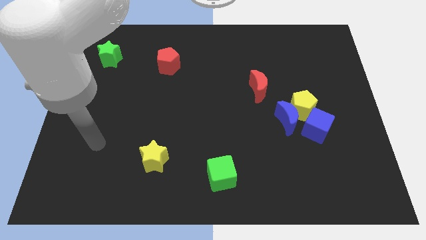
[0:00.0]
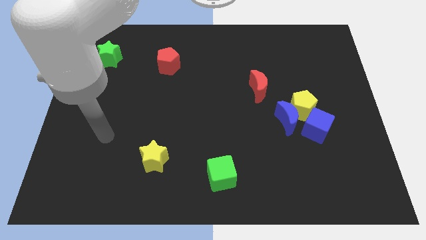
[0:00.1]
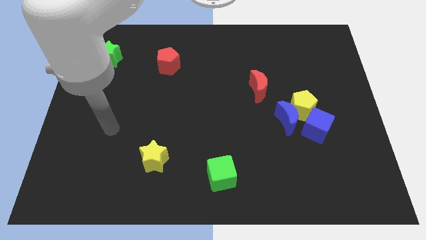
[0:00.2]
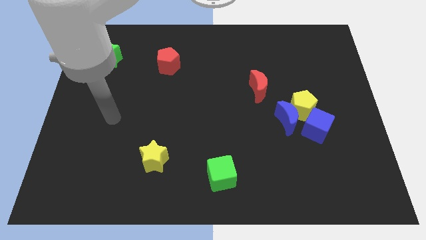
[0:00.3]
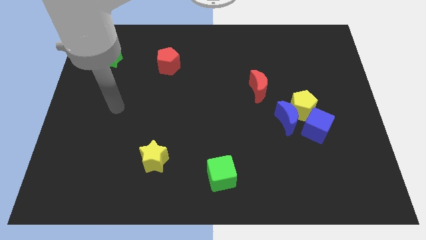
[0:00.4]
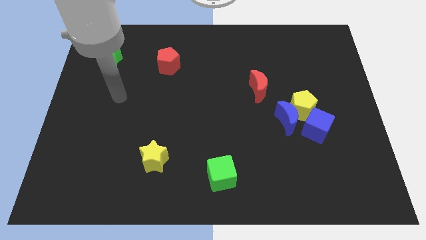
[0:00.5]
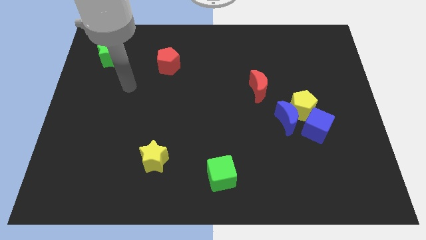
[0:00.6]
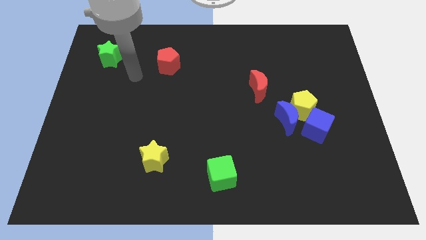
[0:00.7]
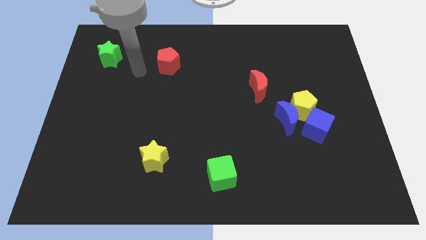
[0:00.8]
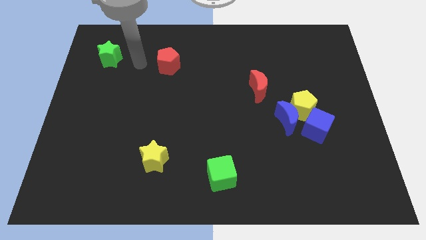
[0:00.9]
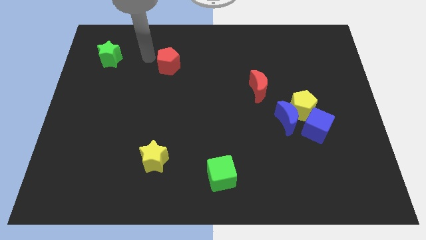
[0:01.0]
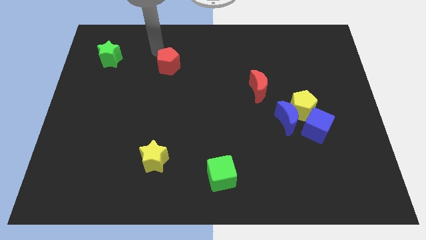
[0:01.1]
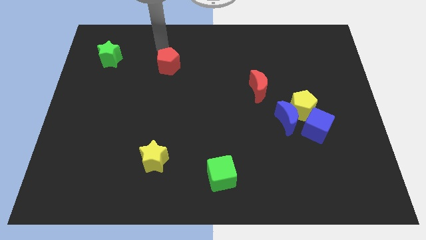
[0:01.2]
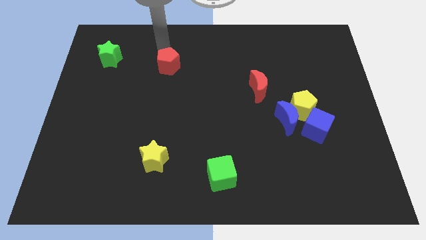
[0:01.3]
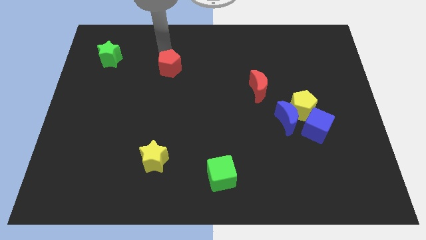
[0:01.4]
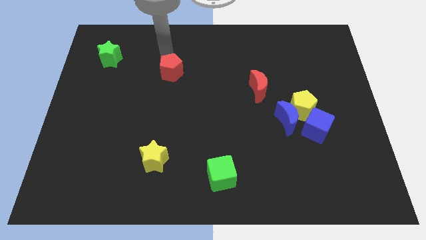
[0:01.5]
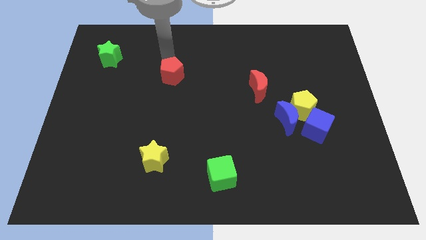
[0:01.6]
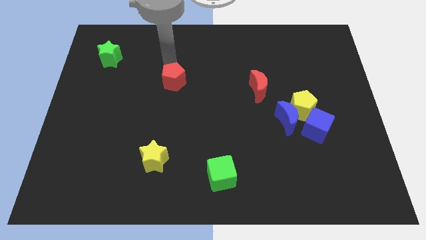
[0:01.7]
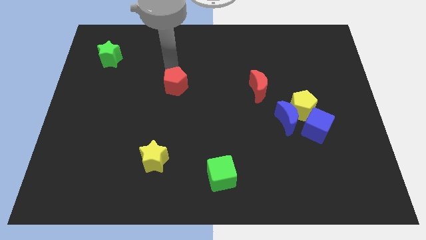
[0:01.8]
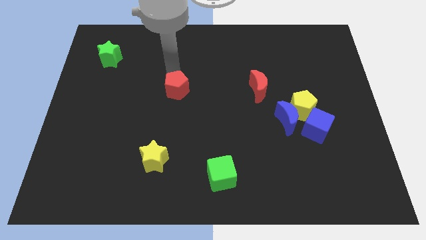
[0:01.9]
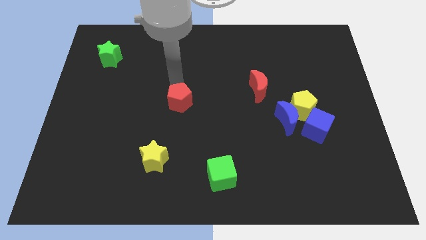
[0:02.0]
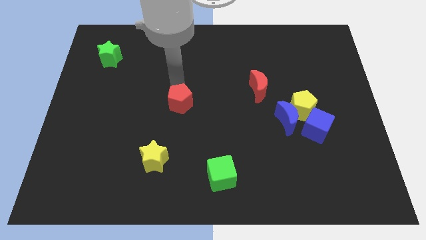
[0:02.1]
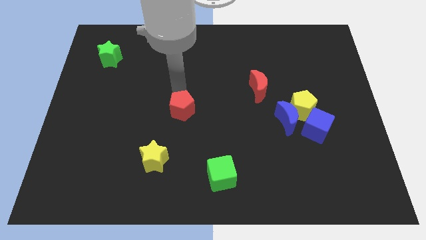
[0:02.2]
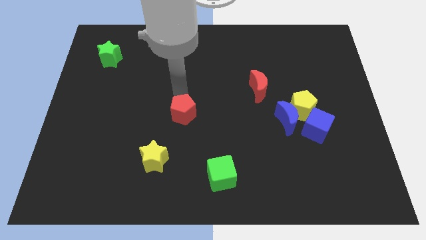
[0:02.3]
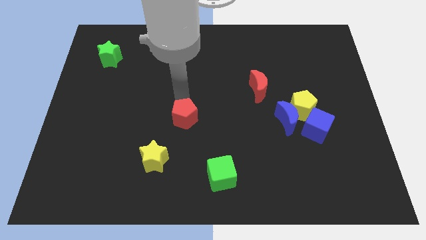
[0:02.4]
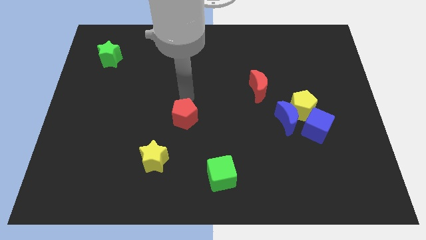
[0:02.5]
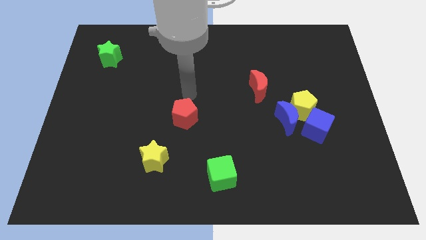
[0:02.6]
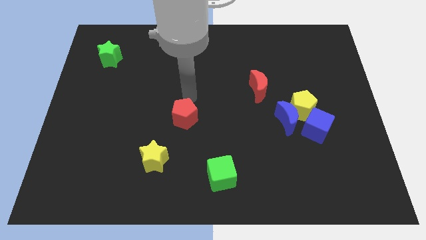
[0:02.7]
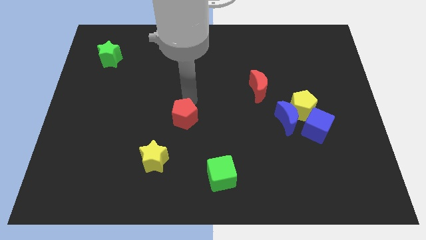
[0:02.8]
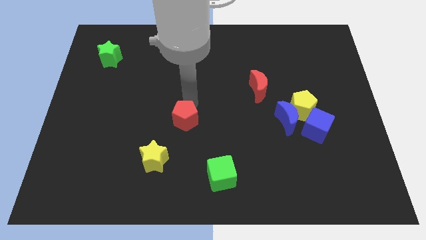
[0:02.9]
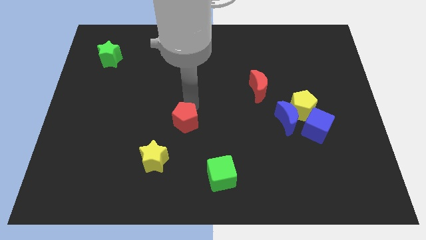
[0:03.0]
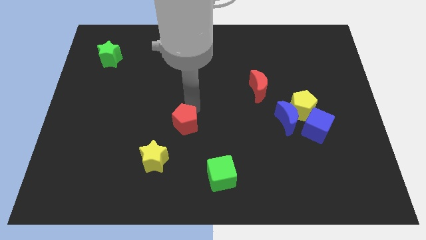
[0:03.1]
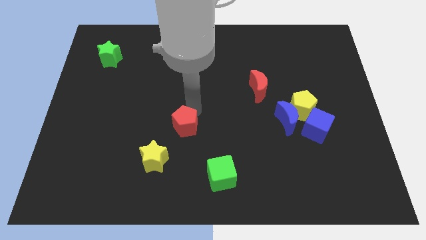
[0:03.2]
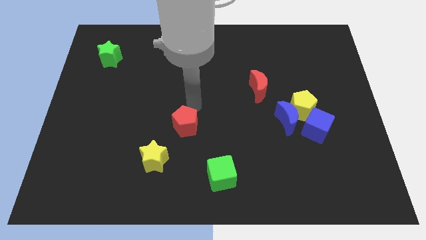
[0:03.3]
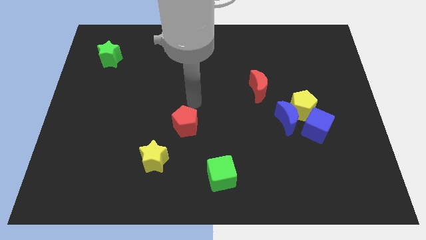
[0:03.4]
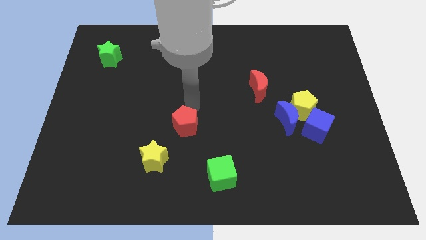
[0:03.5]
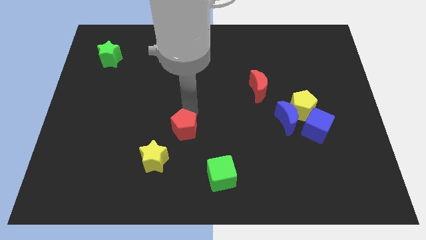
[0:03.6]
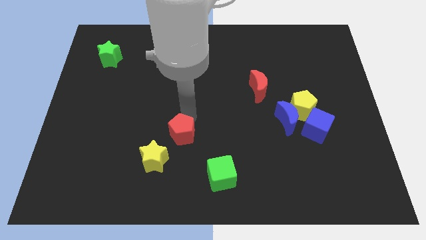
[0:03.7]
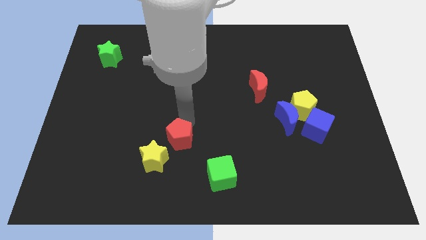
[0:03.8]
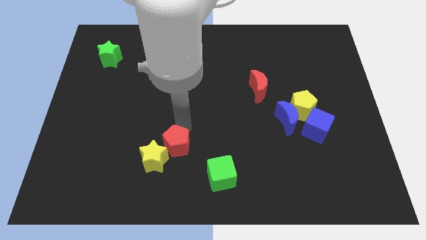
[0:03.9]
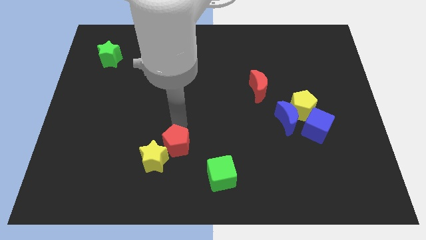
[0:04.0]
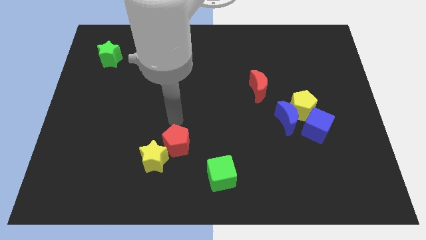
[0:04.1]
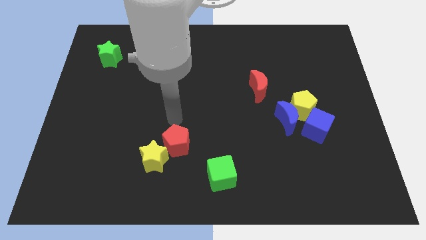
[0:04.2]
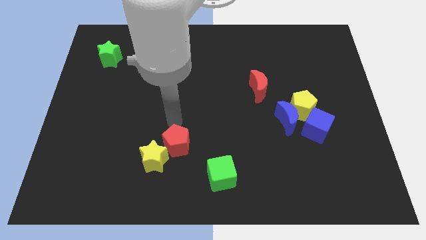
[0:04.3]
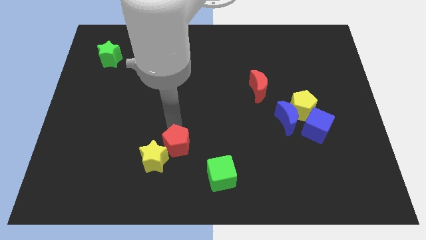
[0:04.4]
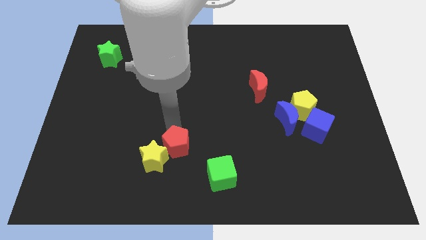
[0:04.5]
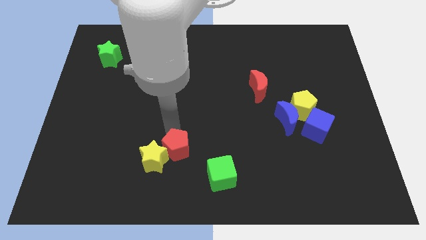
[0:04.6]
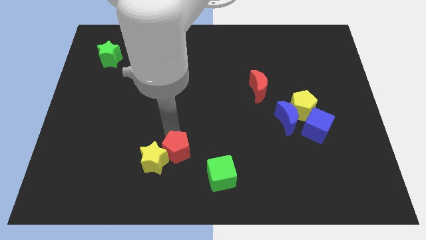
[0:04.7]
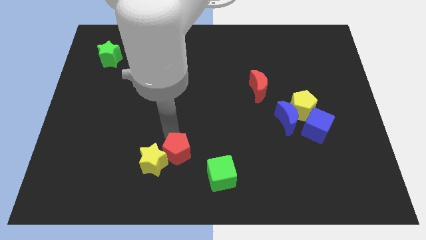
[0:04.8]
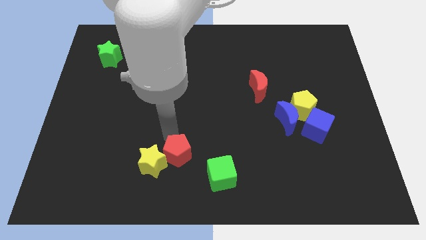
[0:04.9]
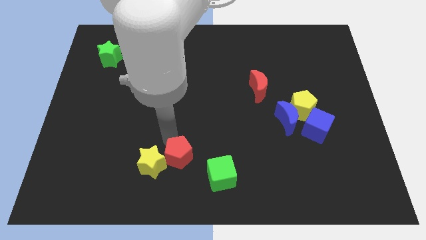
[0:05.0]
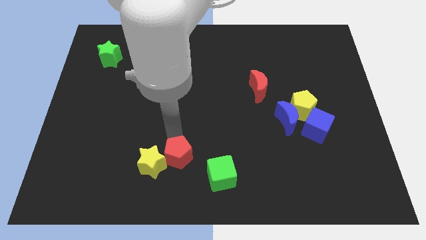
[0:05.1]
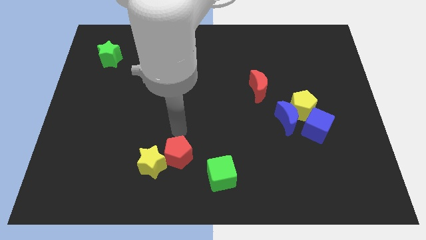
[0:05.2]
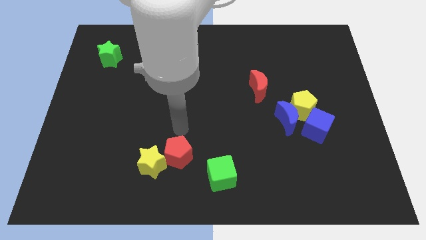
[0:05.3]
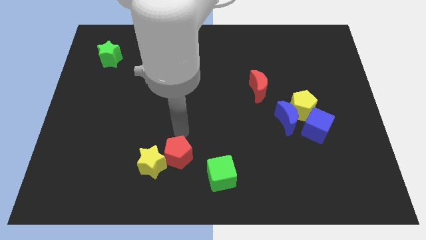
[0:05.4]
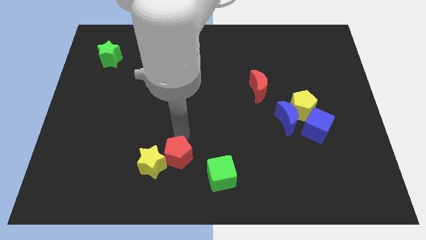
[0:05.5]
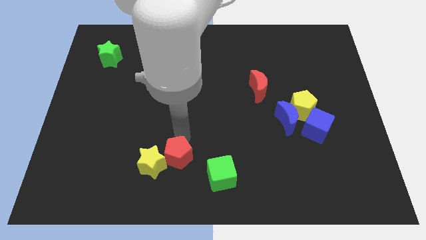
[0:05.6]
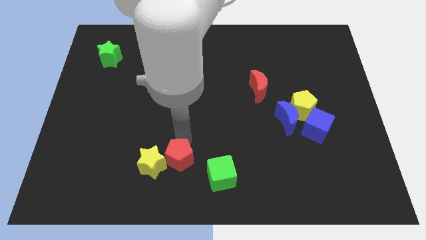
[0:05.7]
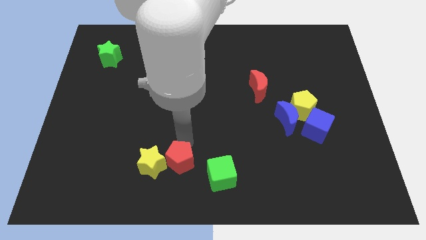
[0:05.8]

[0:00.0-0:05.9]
push the red pentagon to the bottom right of the yellow star

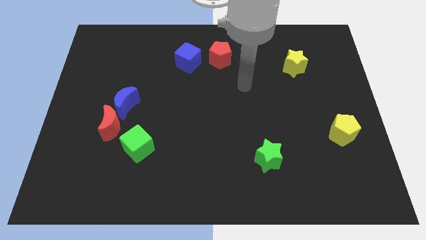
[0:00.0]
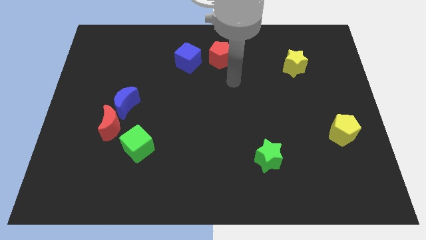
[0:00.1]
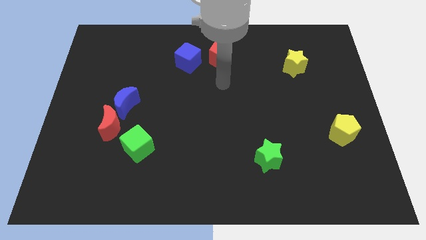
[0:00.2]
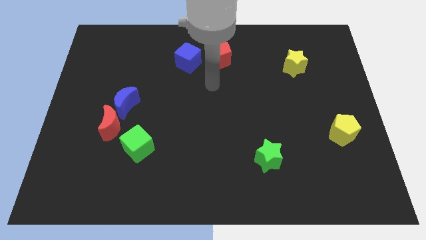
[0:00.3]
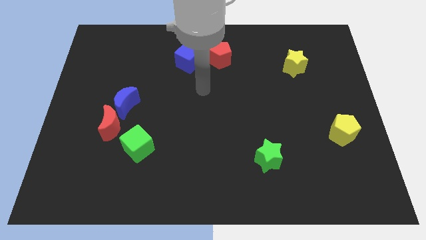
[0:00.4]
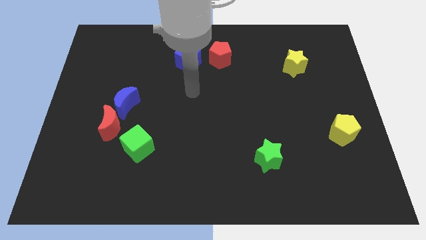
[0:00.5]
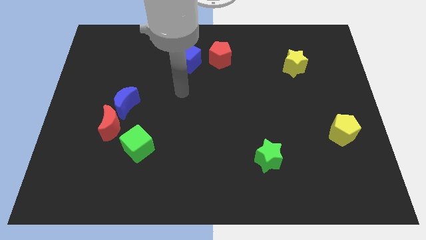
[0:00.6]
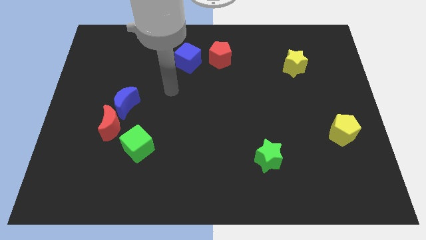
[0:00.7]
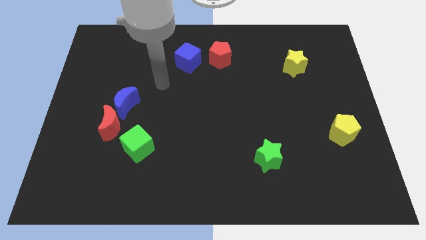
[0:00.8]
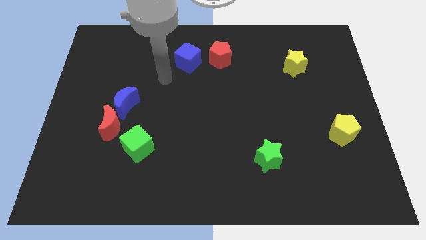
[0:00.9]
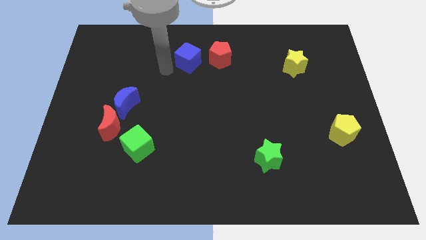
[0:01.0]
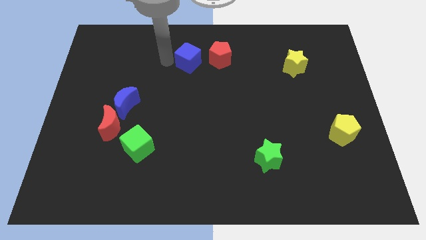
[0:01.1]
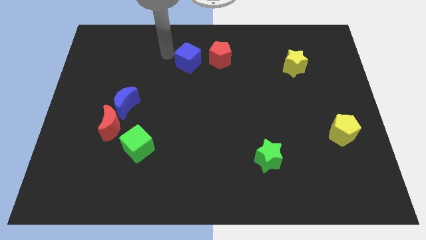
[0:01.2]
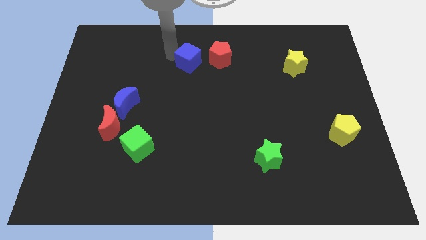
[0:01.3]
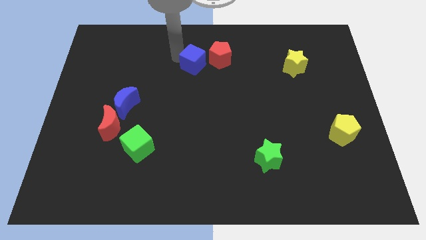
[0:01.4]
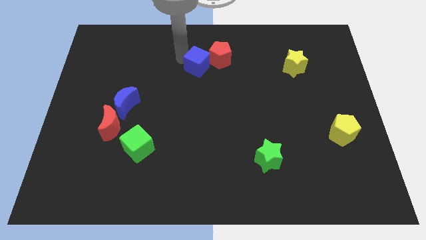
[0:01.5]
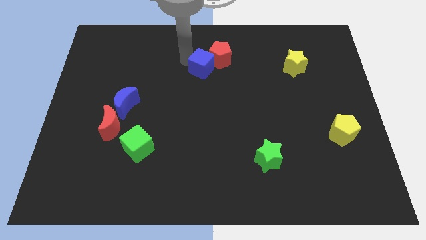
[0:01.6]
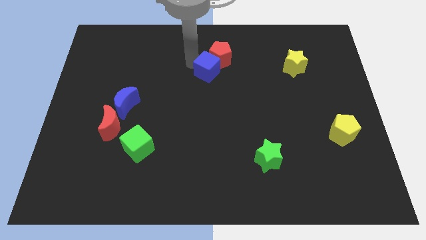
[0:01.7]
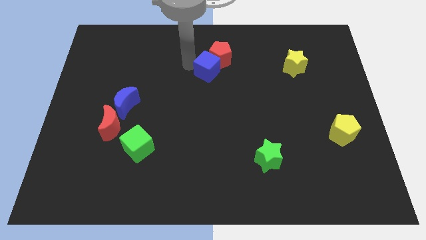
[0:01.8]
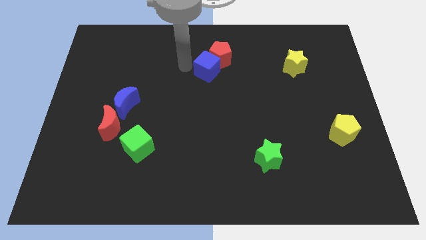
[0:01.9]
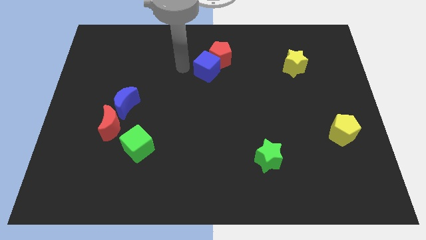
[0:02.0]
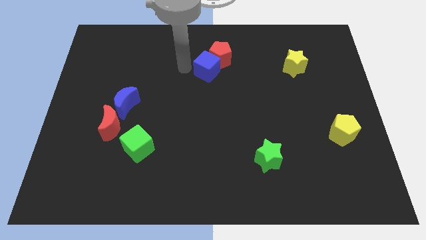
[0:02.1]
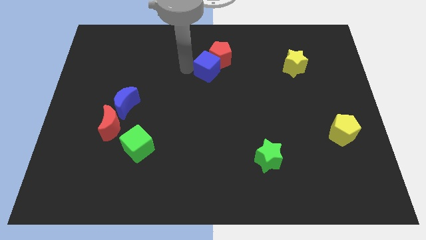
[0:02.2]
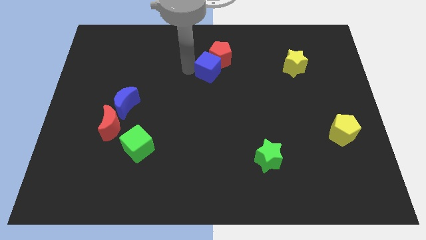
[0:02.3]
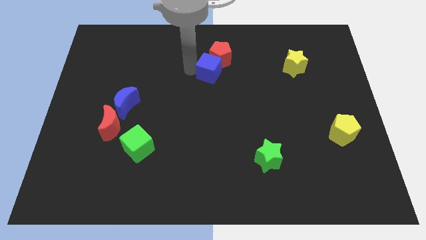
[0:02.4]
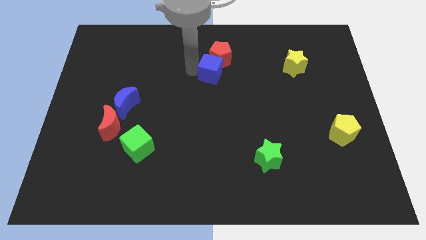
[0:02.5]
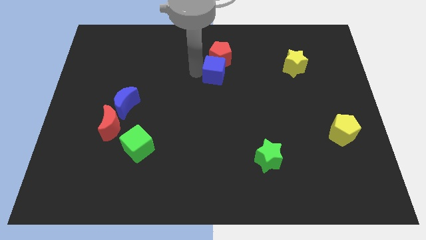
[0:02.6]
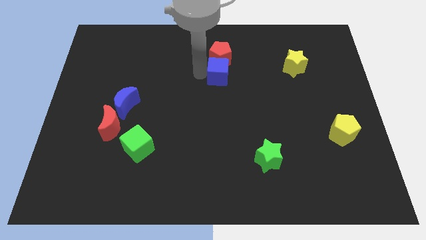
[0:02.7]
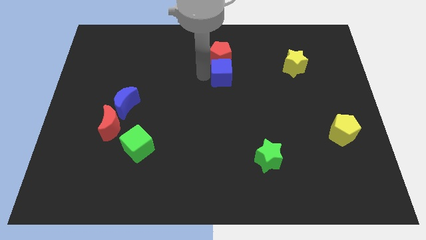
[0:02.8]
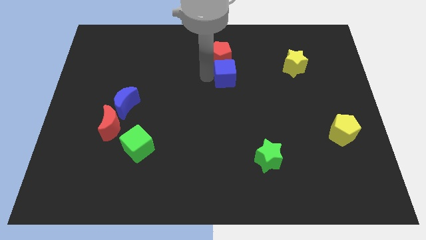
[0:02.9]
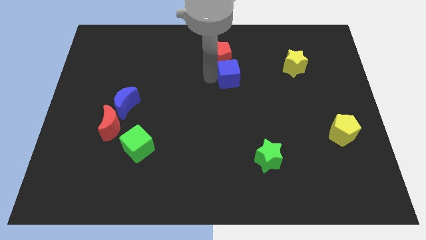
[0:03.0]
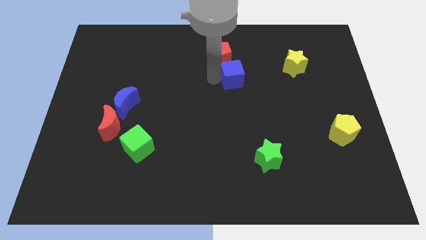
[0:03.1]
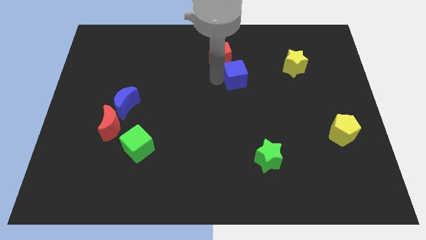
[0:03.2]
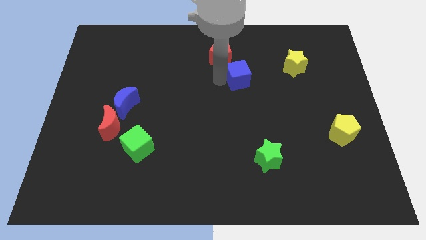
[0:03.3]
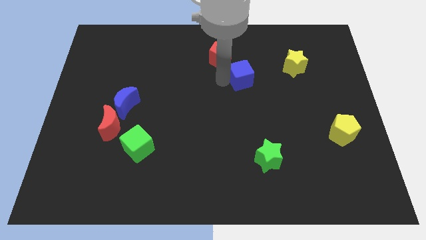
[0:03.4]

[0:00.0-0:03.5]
push the blue cube left of the yellow star
